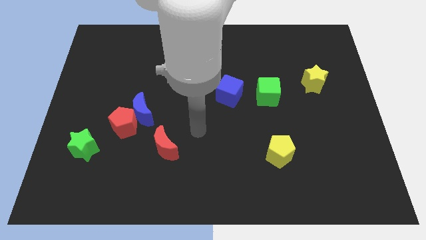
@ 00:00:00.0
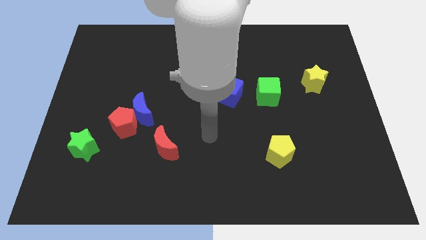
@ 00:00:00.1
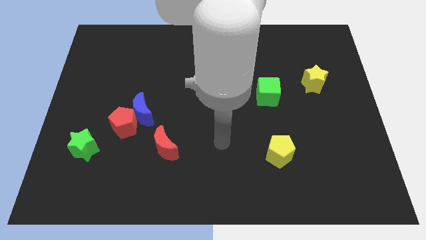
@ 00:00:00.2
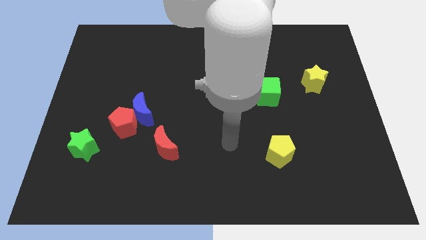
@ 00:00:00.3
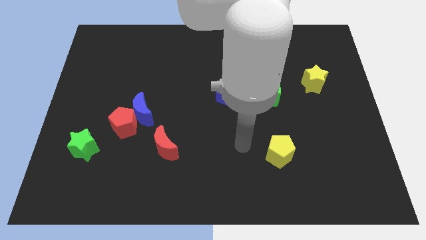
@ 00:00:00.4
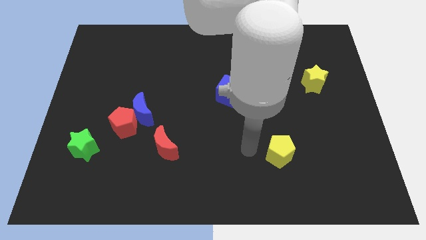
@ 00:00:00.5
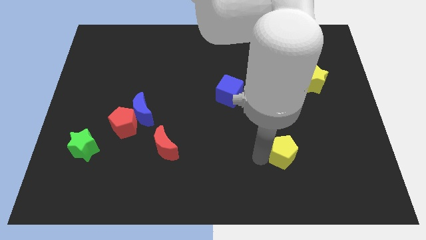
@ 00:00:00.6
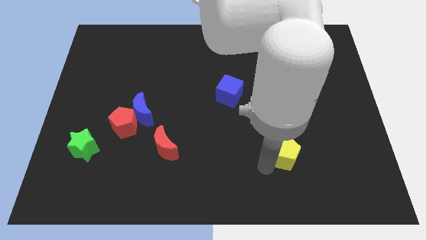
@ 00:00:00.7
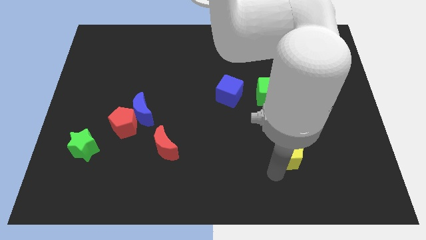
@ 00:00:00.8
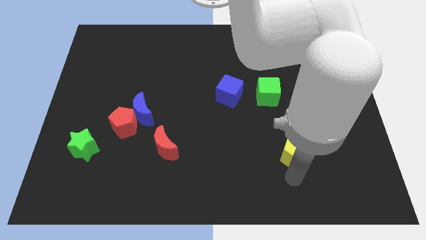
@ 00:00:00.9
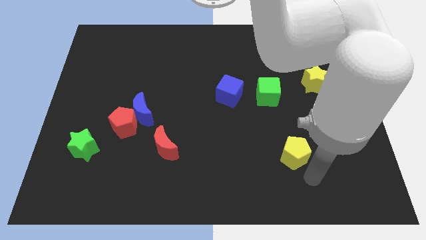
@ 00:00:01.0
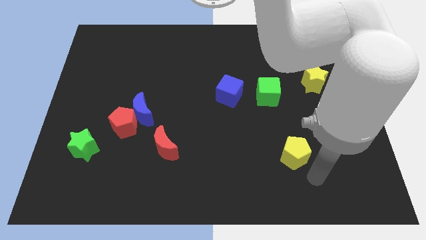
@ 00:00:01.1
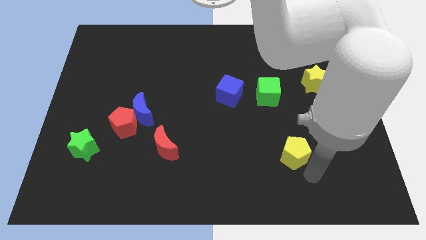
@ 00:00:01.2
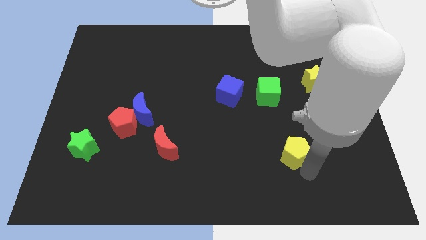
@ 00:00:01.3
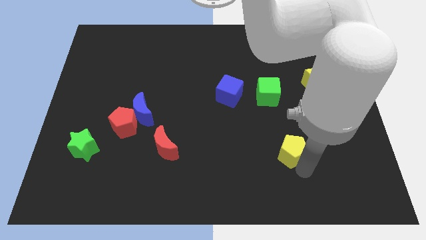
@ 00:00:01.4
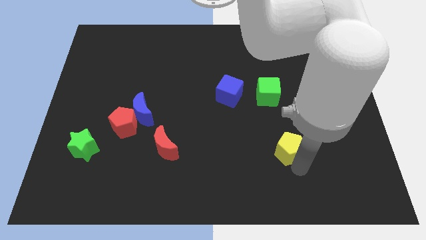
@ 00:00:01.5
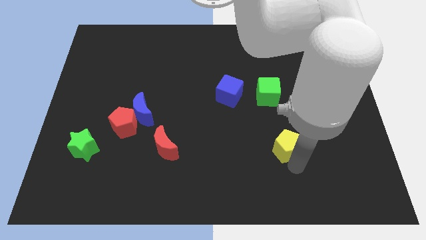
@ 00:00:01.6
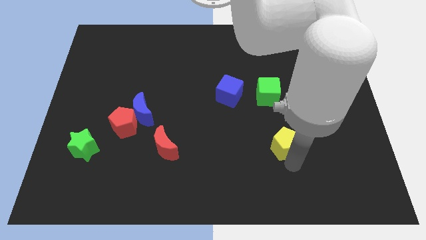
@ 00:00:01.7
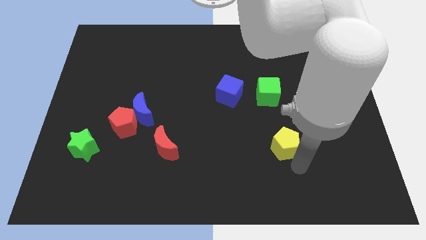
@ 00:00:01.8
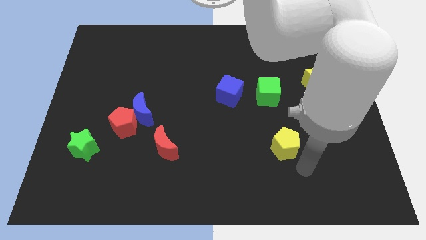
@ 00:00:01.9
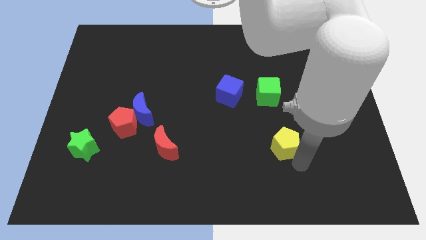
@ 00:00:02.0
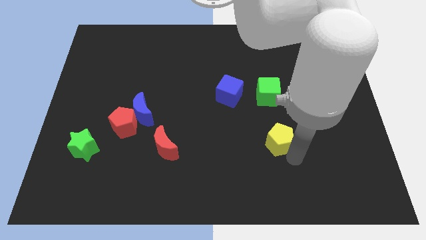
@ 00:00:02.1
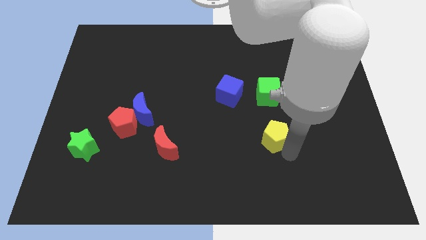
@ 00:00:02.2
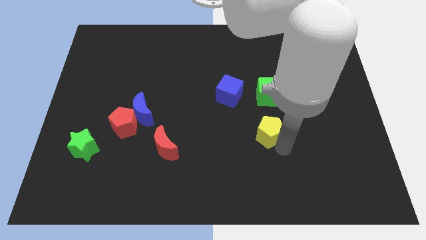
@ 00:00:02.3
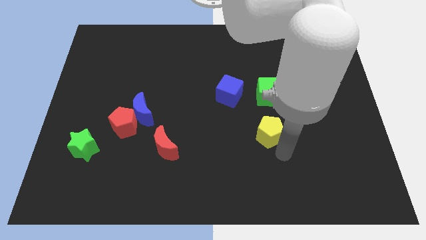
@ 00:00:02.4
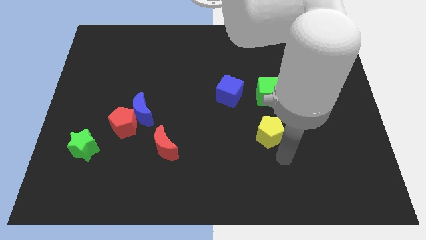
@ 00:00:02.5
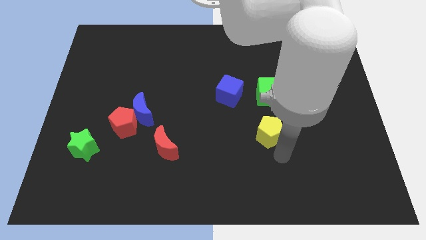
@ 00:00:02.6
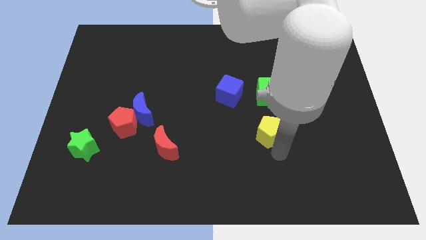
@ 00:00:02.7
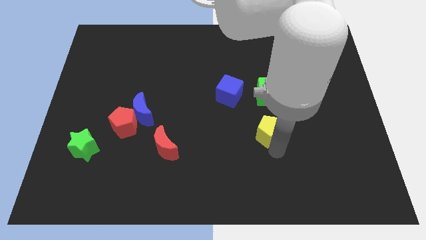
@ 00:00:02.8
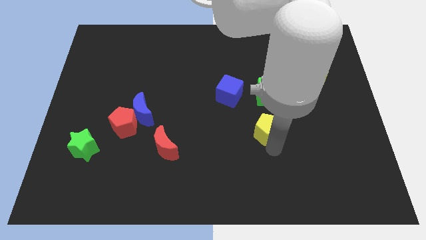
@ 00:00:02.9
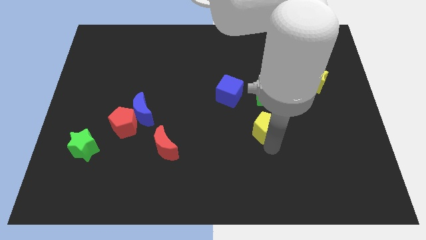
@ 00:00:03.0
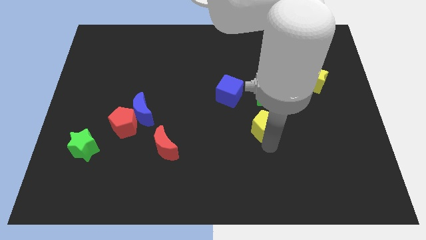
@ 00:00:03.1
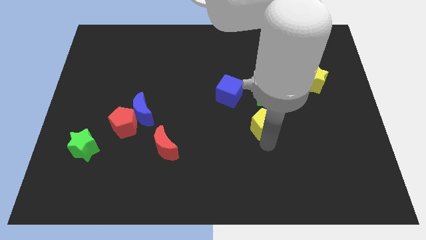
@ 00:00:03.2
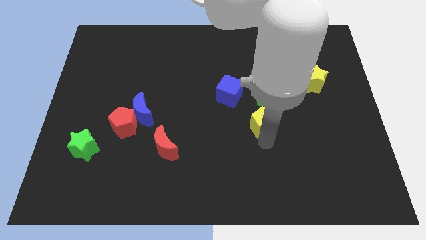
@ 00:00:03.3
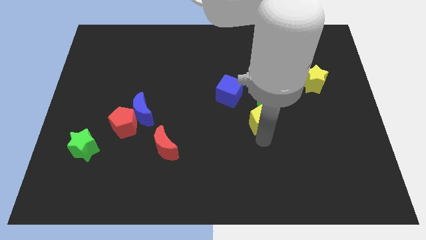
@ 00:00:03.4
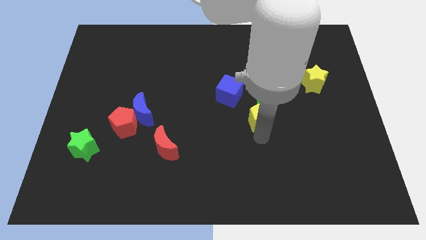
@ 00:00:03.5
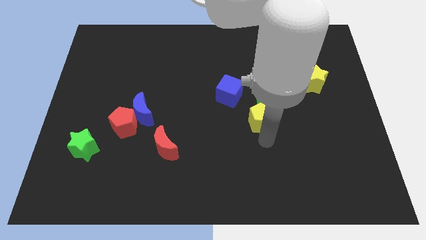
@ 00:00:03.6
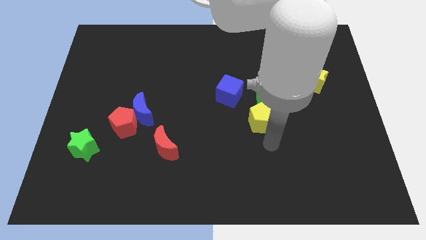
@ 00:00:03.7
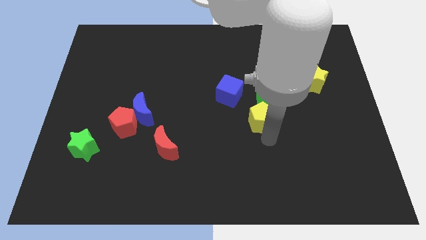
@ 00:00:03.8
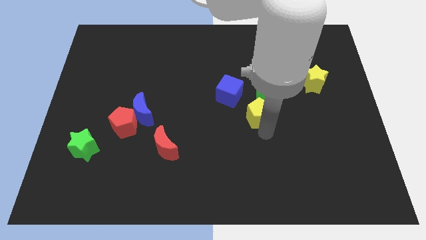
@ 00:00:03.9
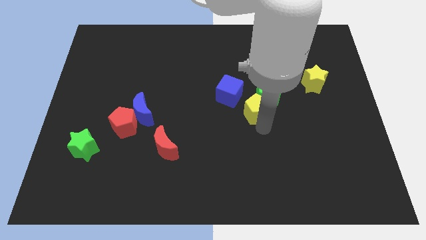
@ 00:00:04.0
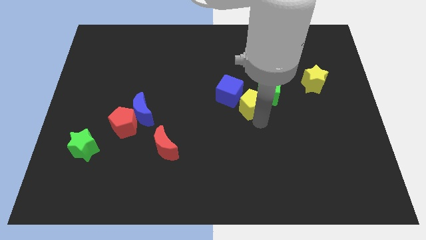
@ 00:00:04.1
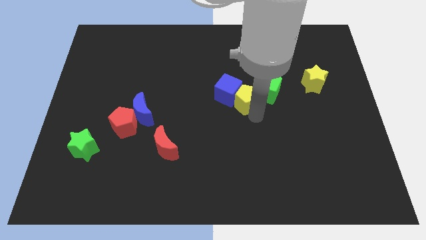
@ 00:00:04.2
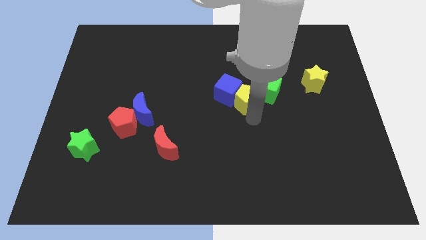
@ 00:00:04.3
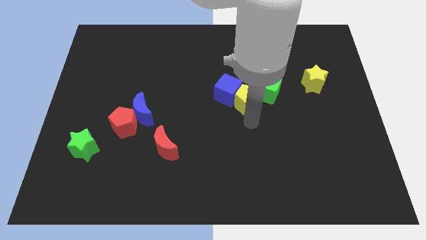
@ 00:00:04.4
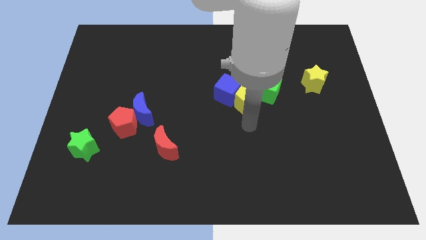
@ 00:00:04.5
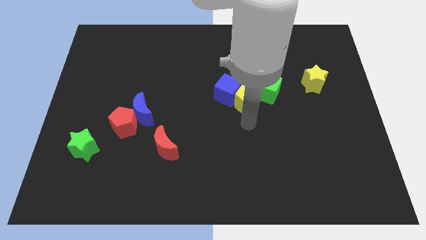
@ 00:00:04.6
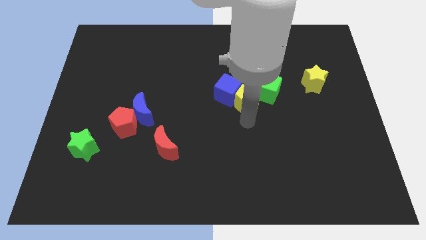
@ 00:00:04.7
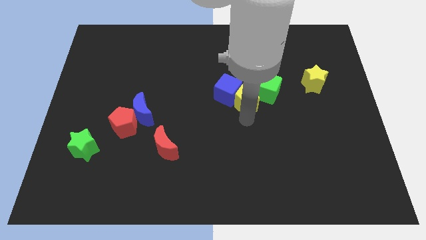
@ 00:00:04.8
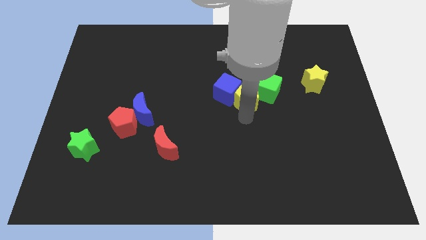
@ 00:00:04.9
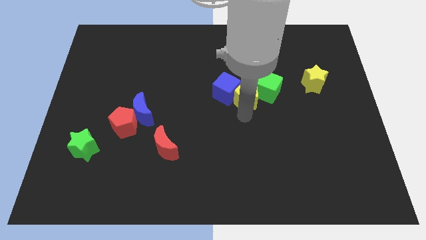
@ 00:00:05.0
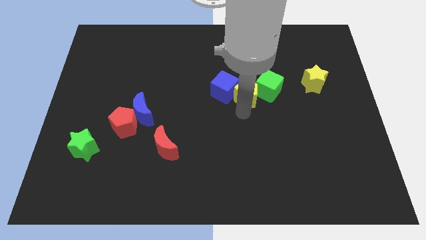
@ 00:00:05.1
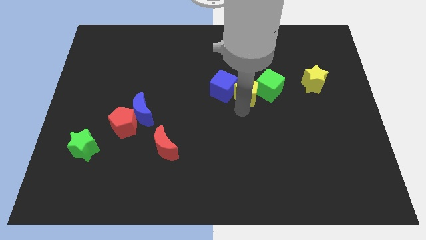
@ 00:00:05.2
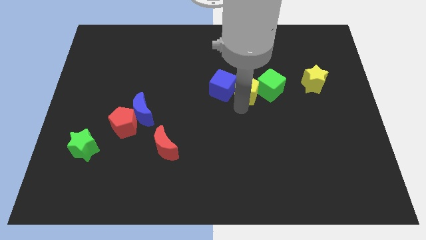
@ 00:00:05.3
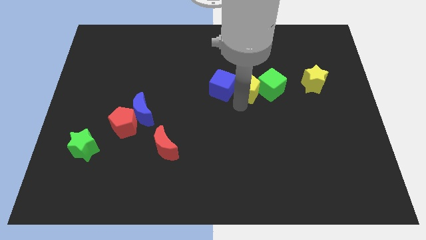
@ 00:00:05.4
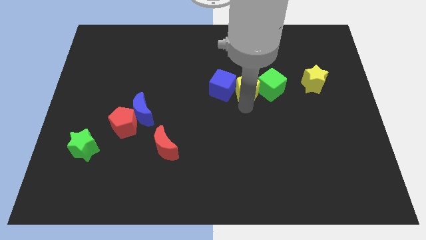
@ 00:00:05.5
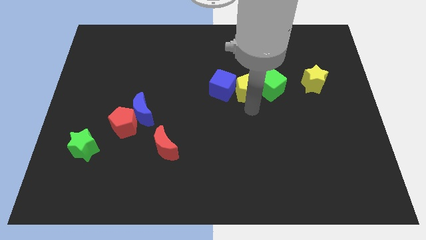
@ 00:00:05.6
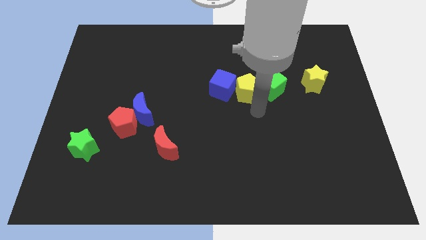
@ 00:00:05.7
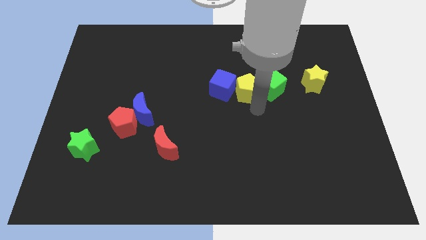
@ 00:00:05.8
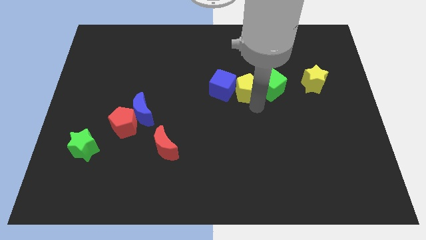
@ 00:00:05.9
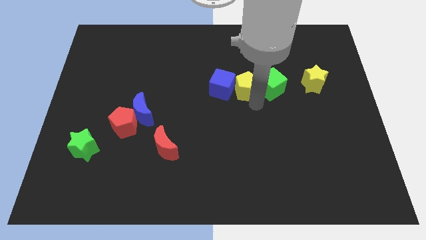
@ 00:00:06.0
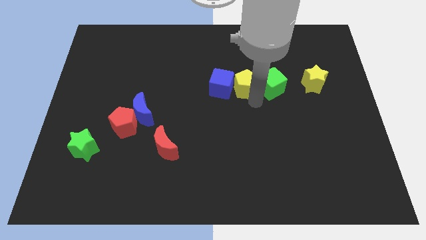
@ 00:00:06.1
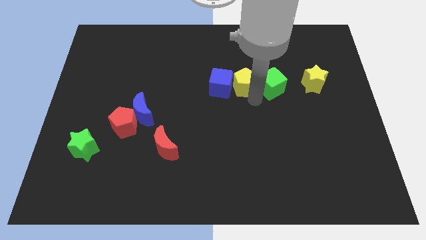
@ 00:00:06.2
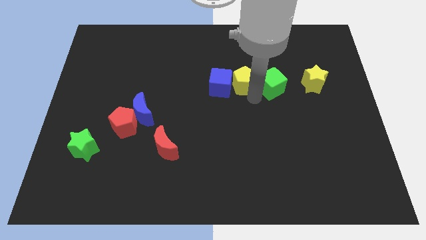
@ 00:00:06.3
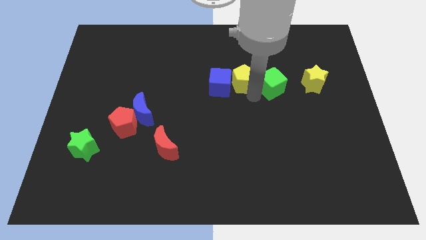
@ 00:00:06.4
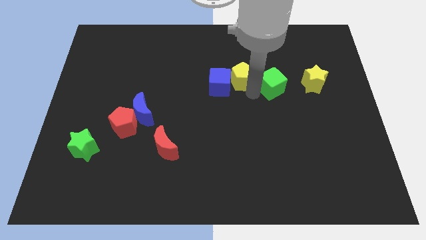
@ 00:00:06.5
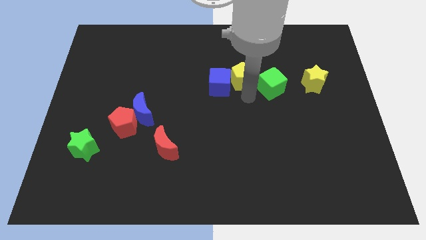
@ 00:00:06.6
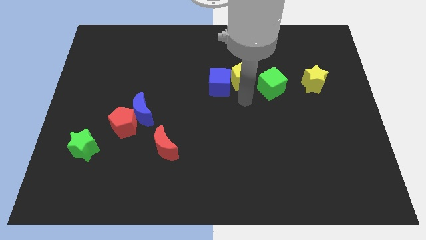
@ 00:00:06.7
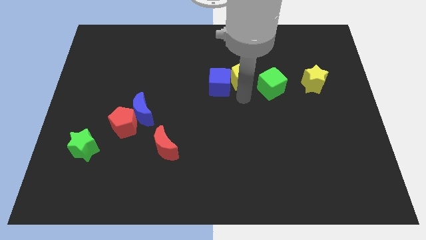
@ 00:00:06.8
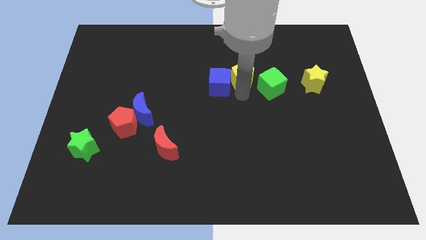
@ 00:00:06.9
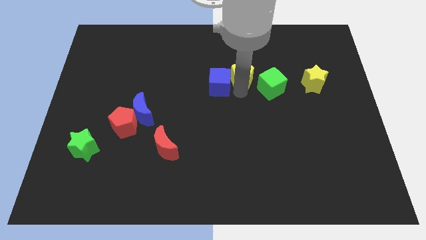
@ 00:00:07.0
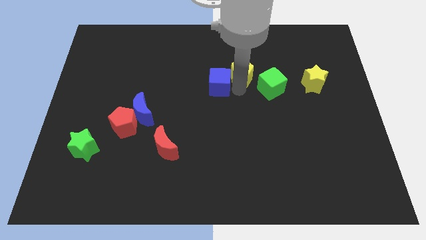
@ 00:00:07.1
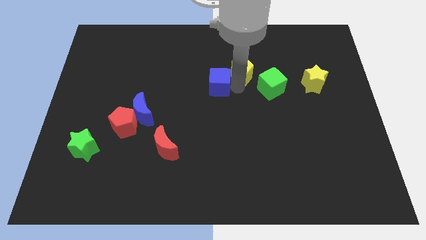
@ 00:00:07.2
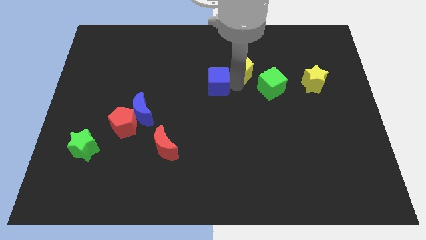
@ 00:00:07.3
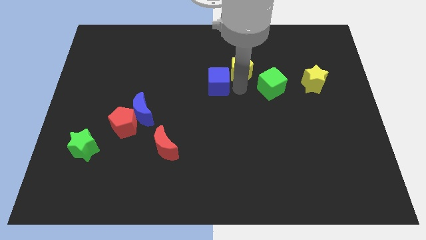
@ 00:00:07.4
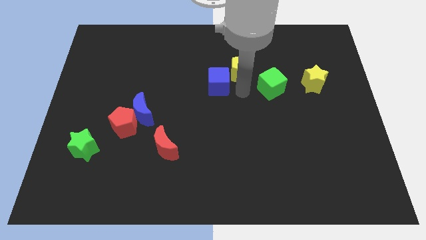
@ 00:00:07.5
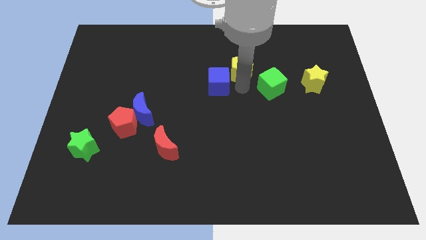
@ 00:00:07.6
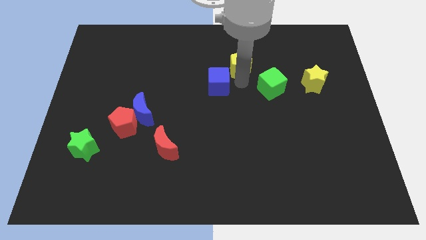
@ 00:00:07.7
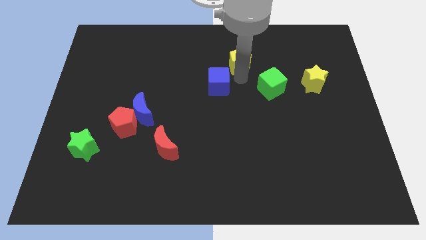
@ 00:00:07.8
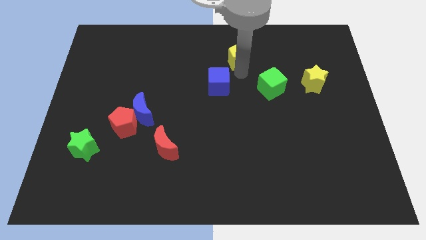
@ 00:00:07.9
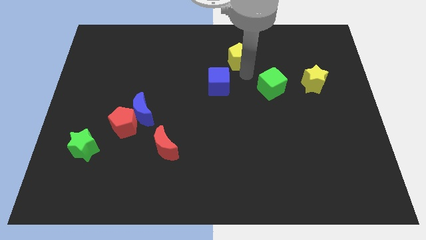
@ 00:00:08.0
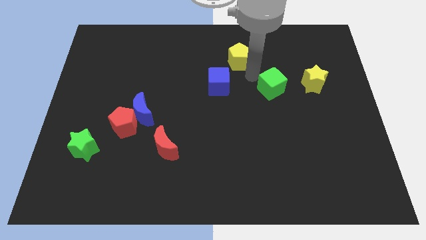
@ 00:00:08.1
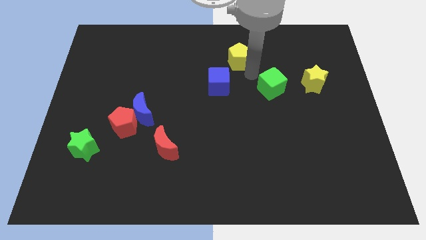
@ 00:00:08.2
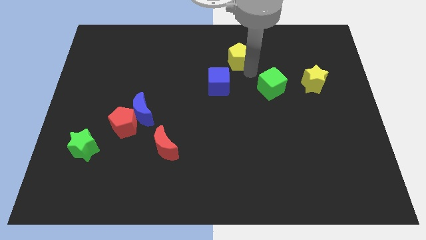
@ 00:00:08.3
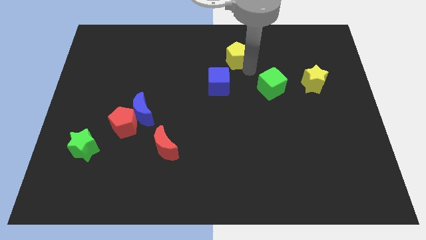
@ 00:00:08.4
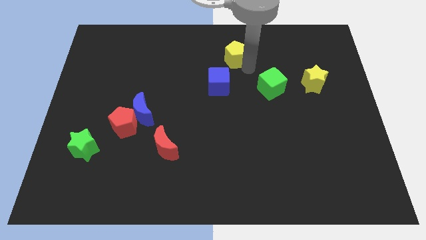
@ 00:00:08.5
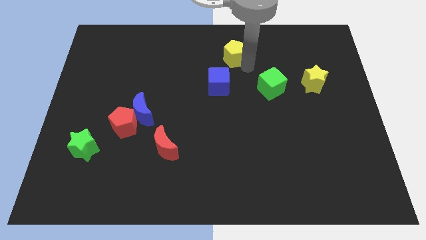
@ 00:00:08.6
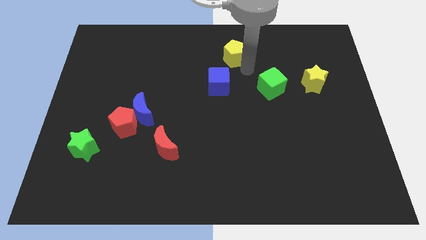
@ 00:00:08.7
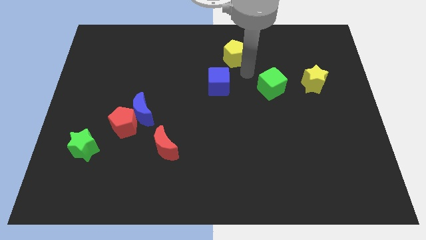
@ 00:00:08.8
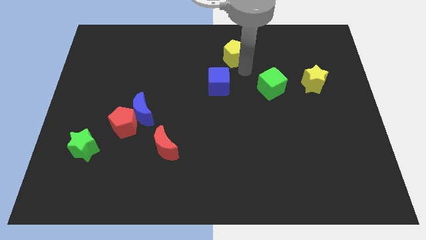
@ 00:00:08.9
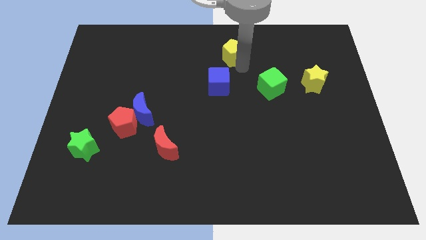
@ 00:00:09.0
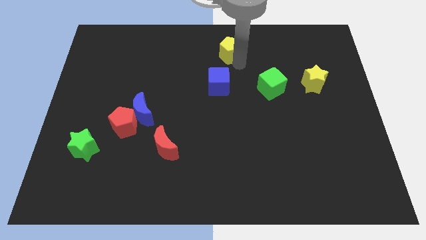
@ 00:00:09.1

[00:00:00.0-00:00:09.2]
put the yellow pentagon to the towards your base
